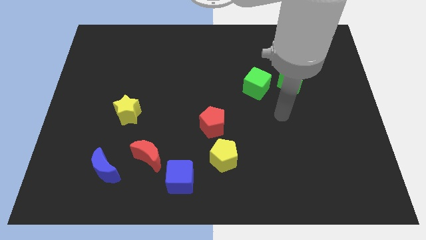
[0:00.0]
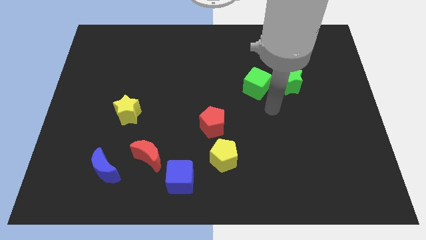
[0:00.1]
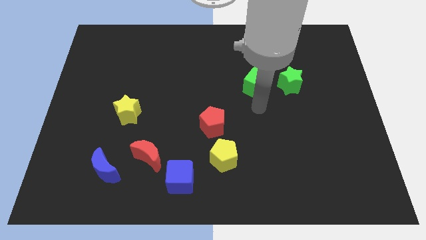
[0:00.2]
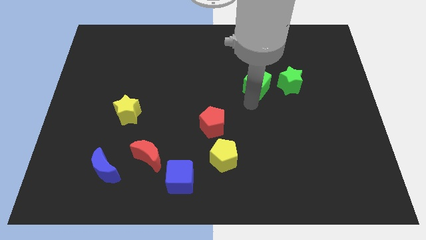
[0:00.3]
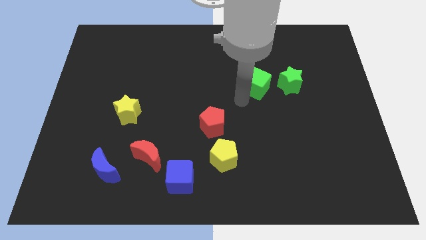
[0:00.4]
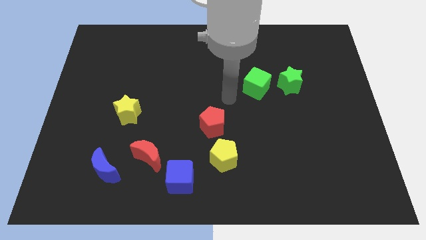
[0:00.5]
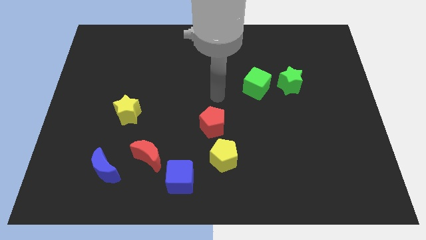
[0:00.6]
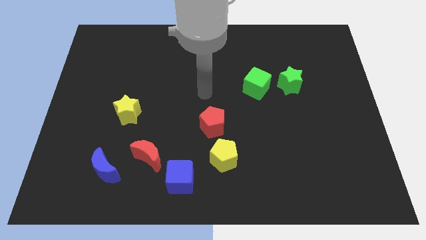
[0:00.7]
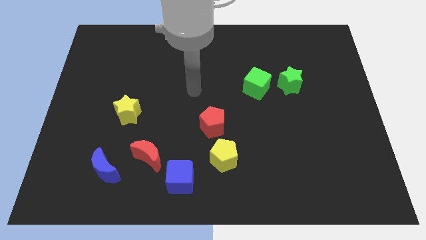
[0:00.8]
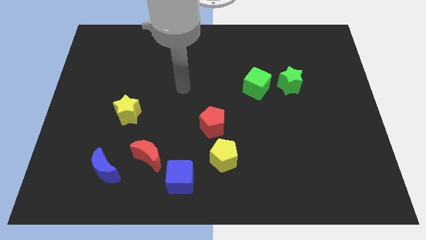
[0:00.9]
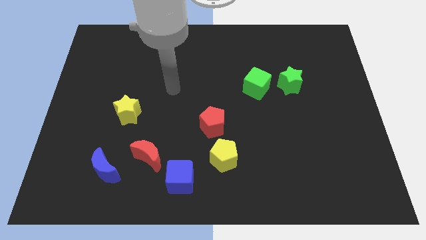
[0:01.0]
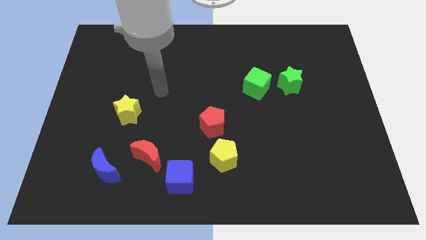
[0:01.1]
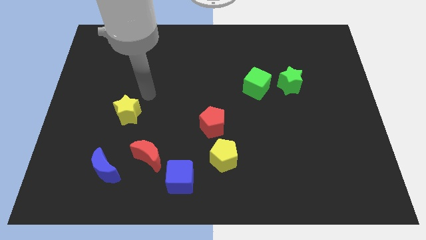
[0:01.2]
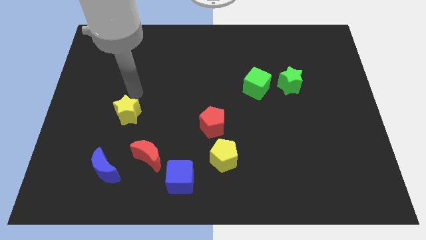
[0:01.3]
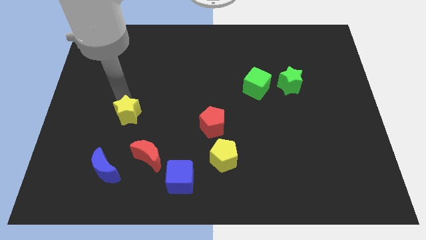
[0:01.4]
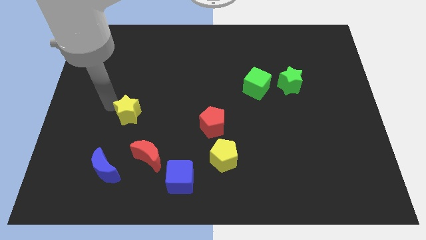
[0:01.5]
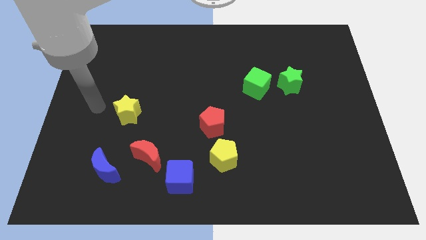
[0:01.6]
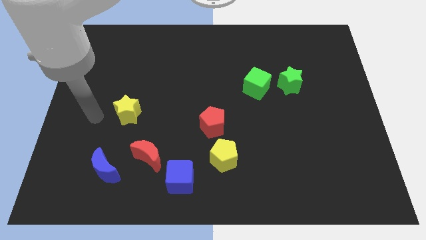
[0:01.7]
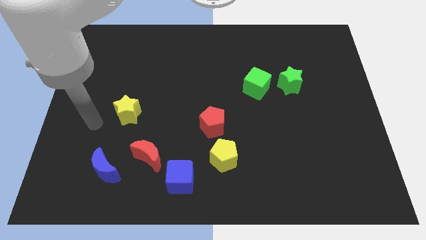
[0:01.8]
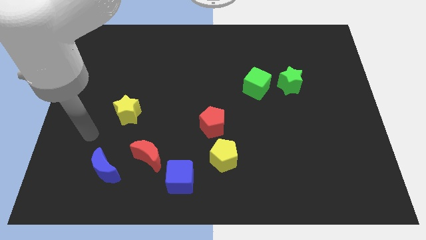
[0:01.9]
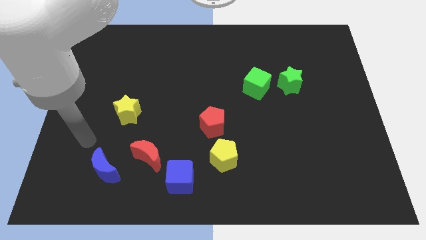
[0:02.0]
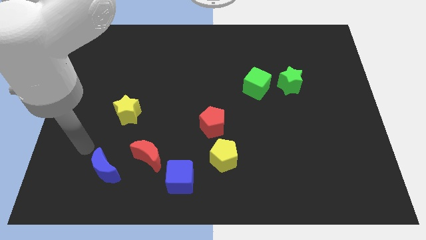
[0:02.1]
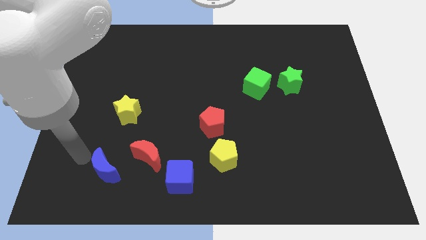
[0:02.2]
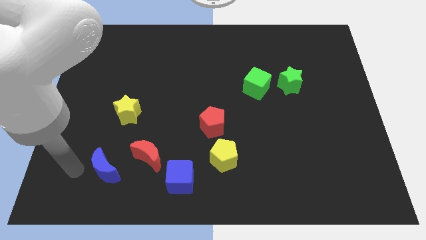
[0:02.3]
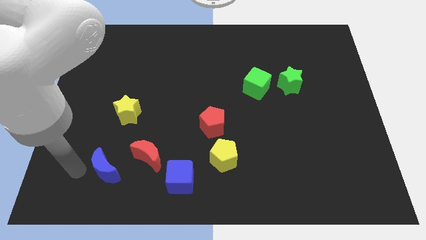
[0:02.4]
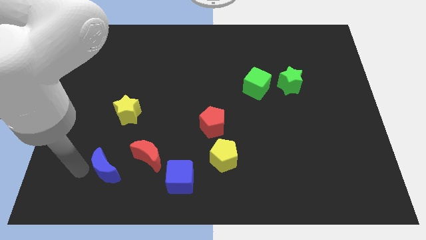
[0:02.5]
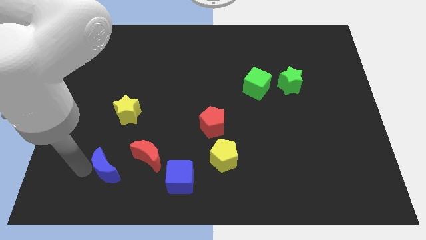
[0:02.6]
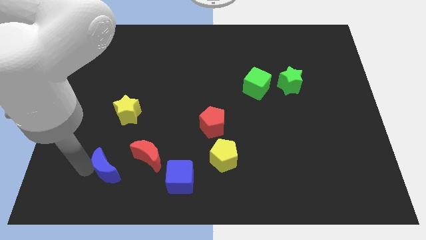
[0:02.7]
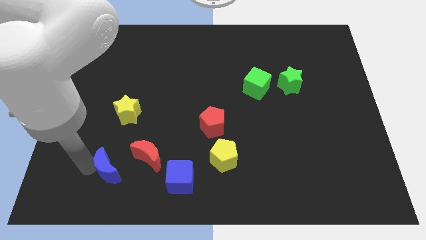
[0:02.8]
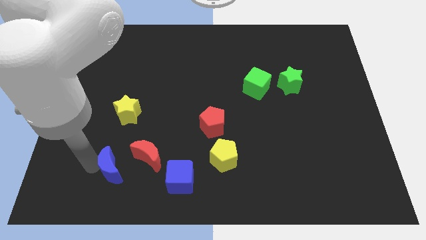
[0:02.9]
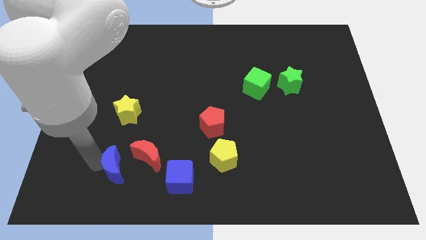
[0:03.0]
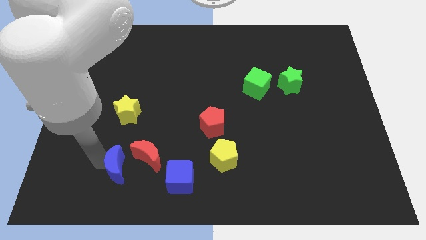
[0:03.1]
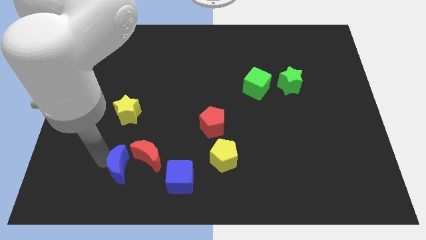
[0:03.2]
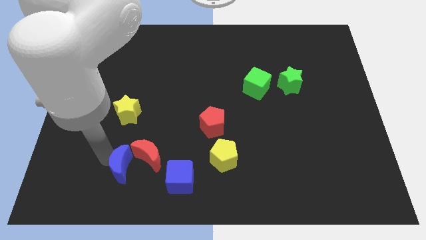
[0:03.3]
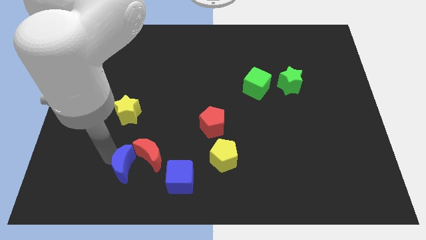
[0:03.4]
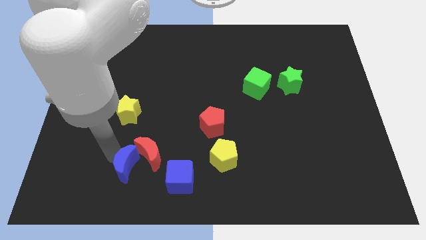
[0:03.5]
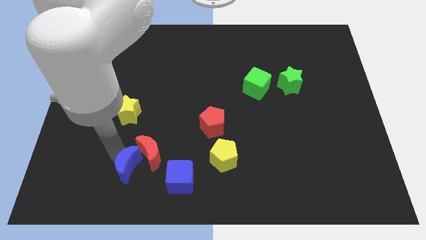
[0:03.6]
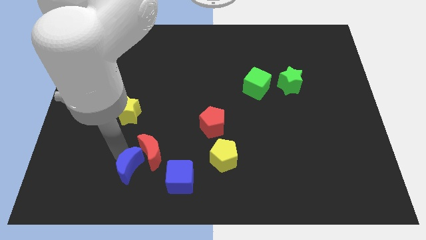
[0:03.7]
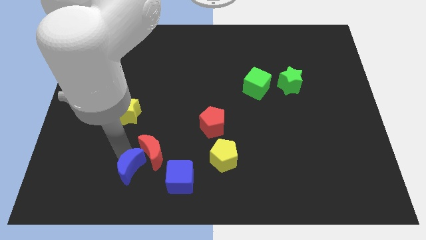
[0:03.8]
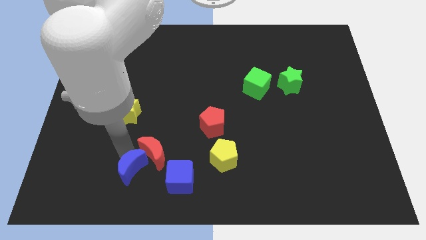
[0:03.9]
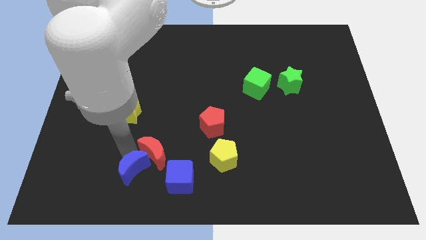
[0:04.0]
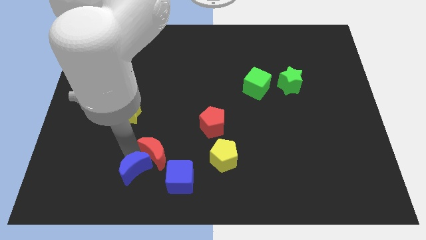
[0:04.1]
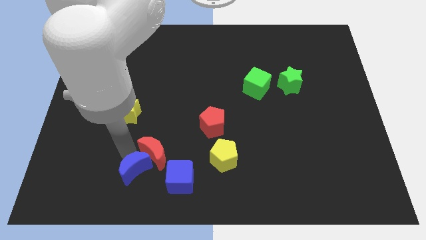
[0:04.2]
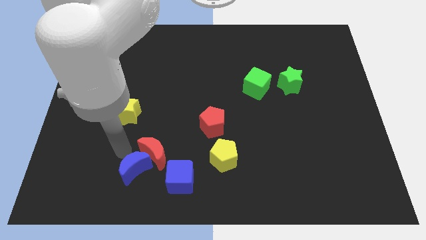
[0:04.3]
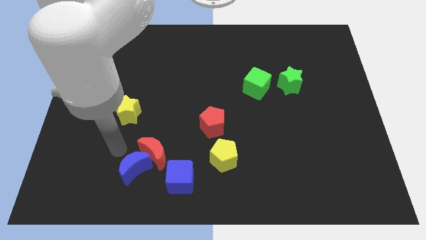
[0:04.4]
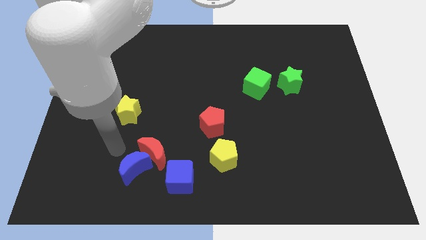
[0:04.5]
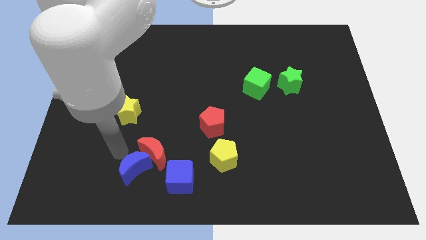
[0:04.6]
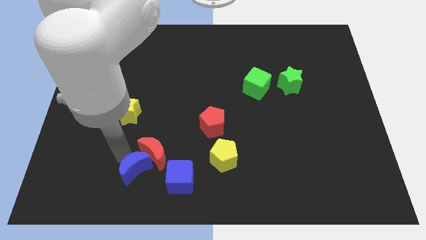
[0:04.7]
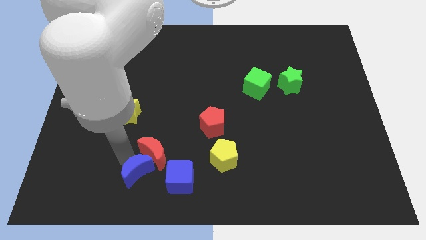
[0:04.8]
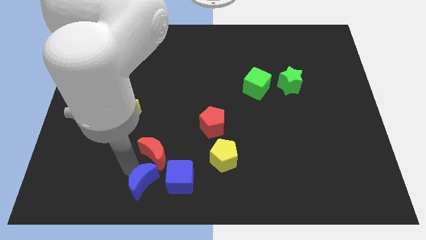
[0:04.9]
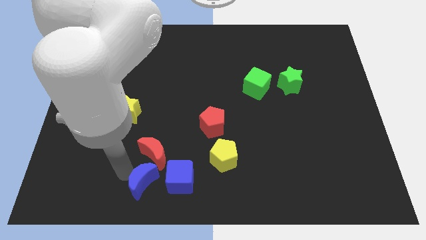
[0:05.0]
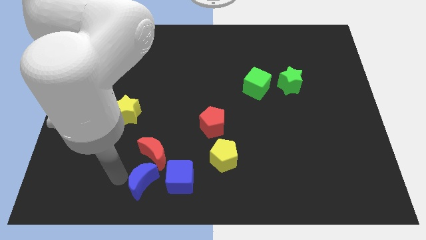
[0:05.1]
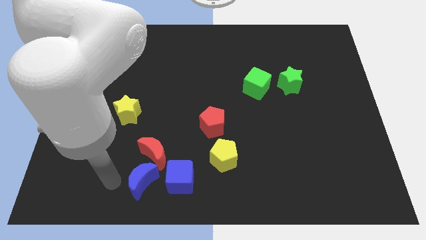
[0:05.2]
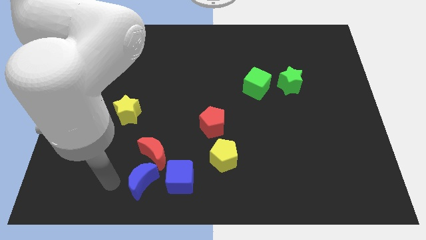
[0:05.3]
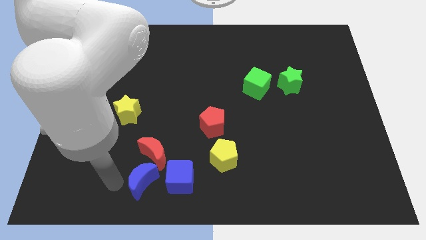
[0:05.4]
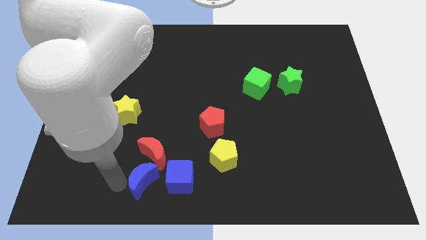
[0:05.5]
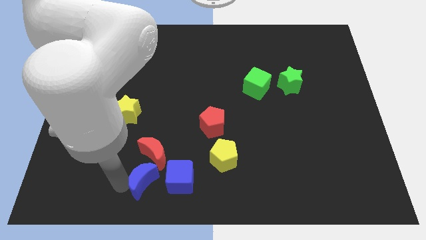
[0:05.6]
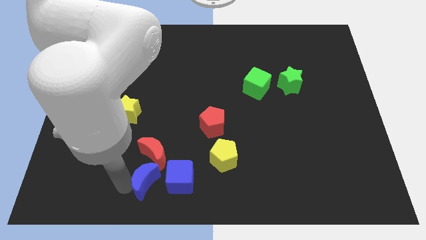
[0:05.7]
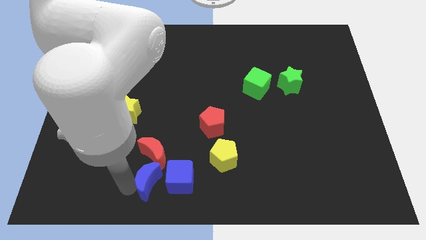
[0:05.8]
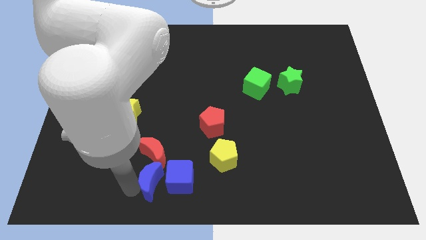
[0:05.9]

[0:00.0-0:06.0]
push the blue moon close to the blue cube

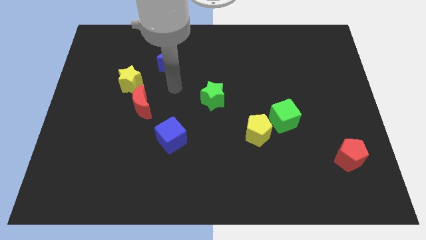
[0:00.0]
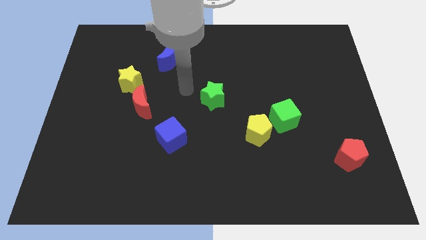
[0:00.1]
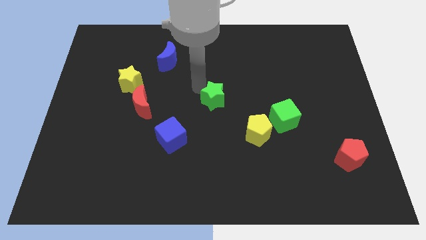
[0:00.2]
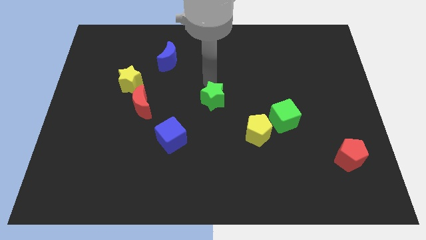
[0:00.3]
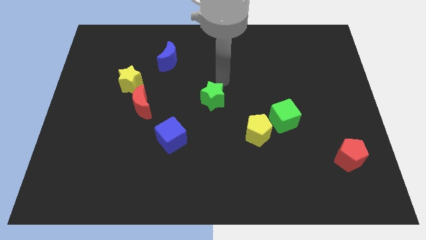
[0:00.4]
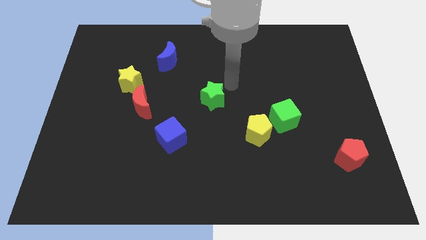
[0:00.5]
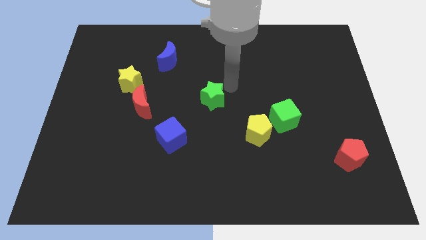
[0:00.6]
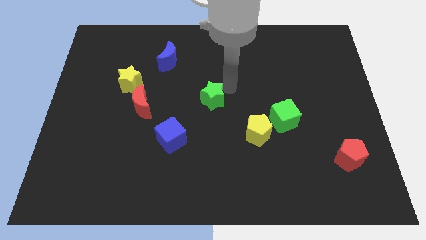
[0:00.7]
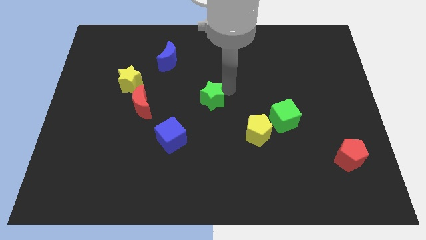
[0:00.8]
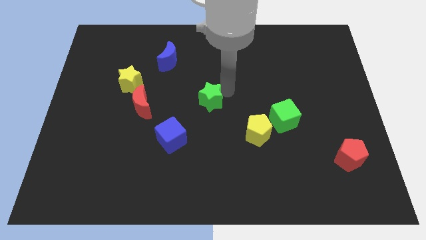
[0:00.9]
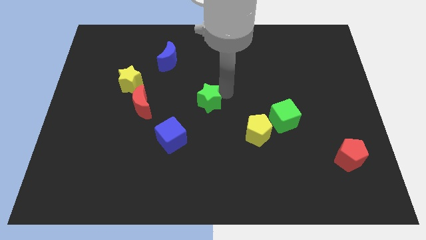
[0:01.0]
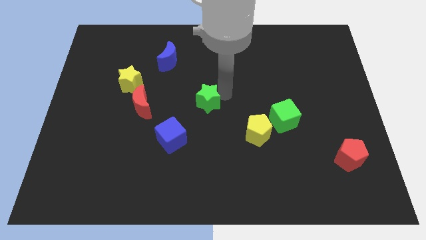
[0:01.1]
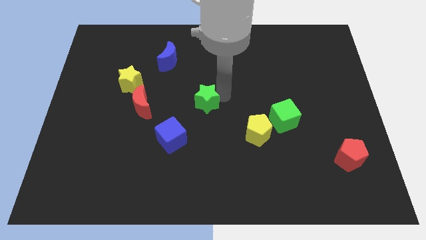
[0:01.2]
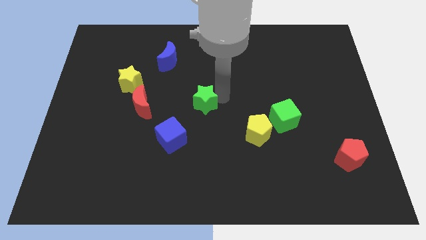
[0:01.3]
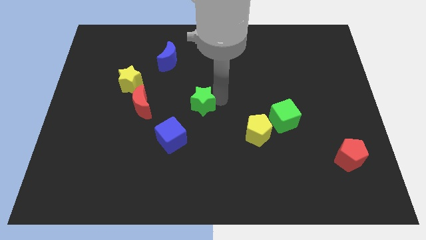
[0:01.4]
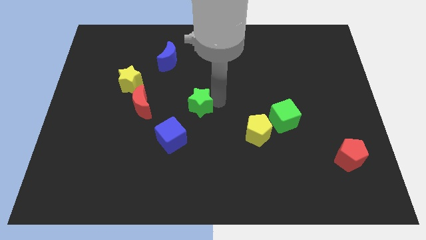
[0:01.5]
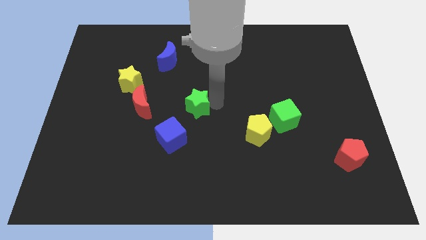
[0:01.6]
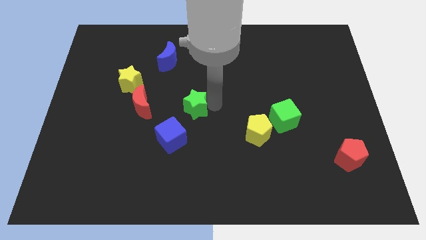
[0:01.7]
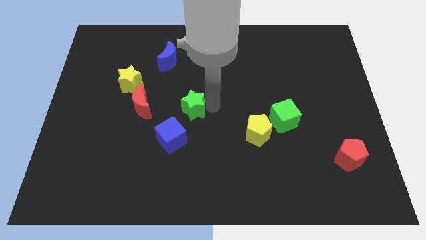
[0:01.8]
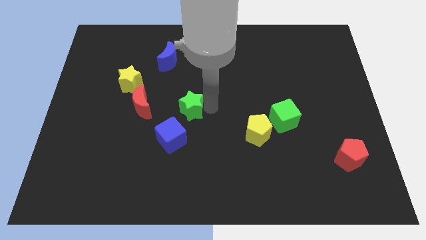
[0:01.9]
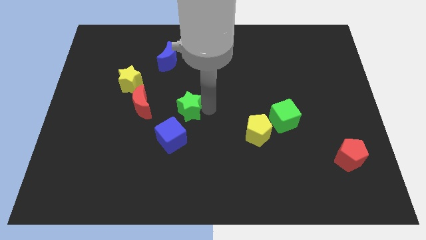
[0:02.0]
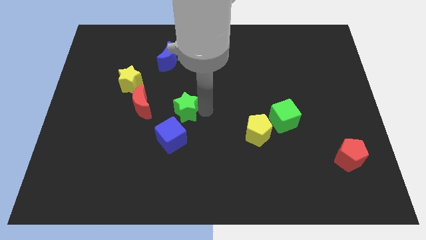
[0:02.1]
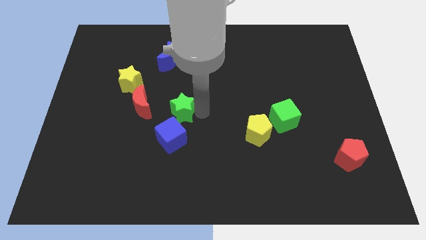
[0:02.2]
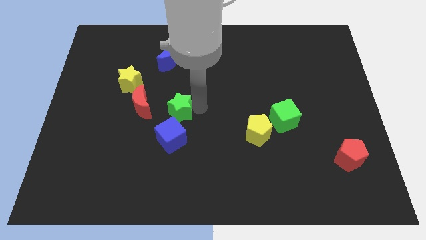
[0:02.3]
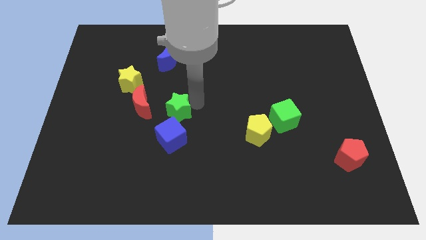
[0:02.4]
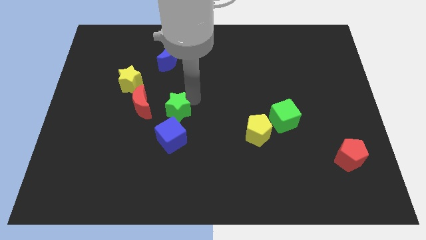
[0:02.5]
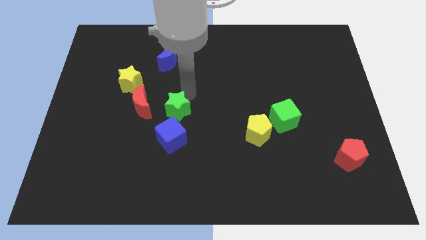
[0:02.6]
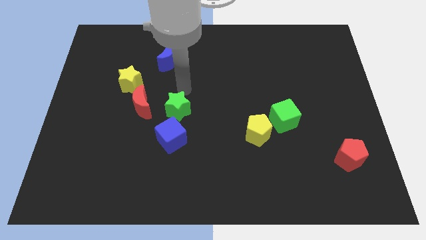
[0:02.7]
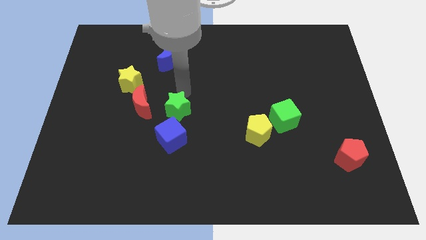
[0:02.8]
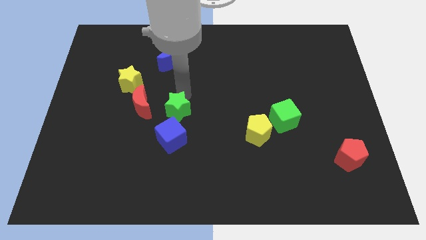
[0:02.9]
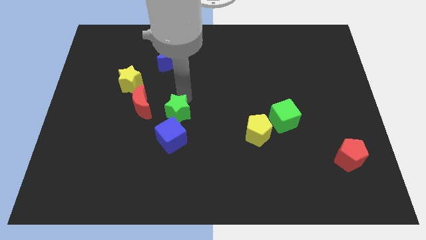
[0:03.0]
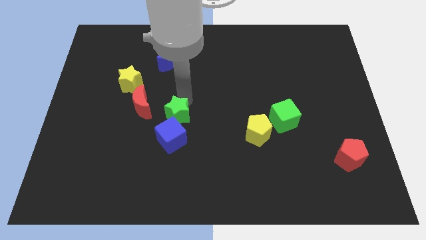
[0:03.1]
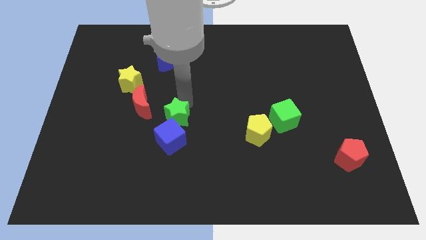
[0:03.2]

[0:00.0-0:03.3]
put the green star next to the blue cube
